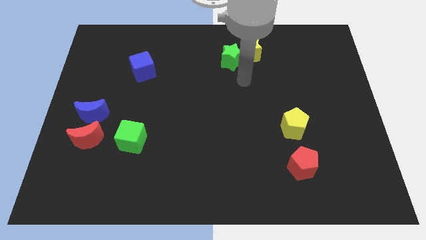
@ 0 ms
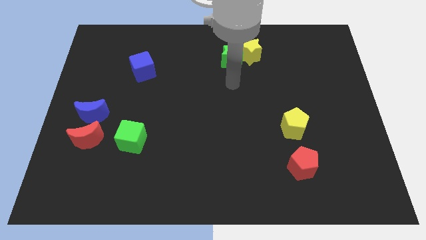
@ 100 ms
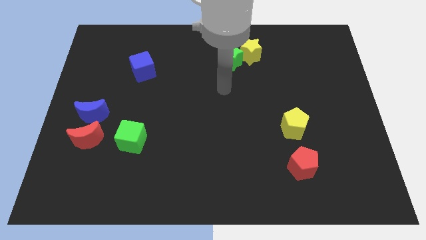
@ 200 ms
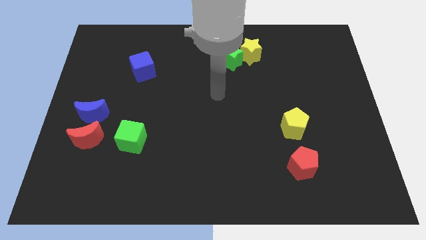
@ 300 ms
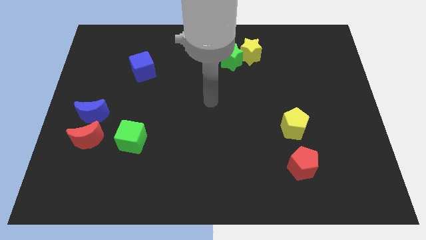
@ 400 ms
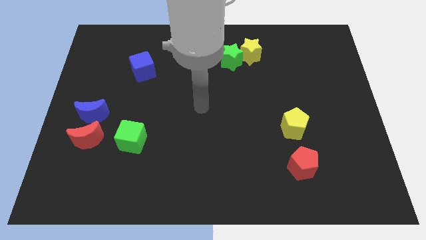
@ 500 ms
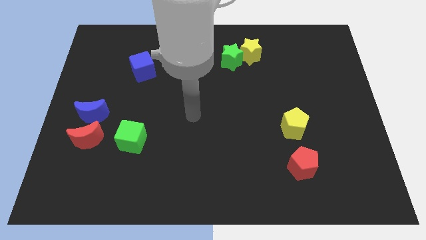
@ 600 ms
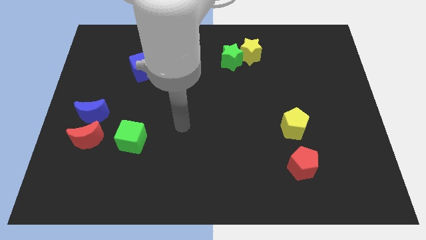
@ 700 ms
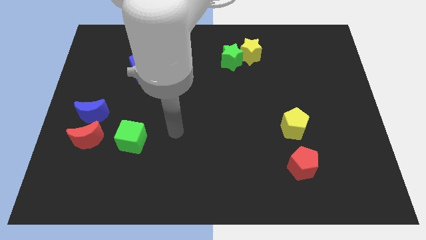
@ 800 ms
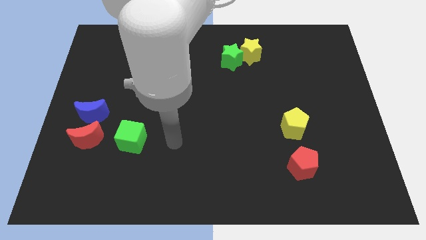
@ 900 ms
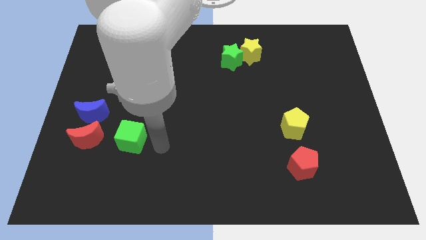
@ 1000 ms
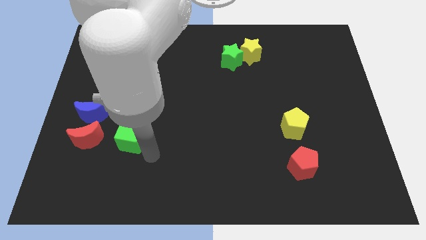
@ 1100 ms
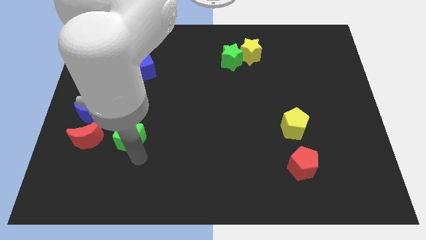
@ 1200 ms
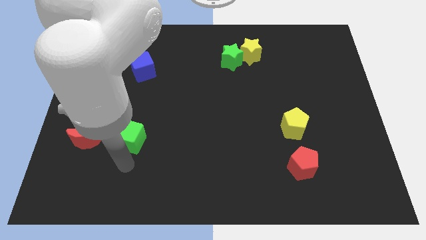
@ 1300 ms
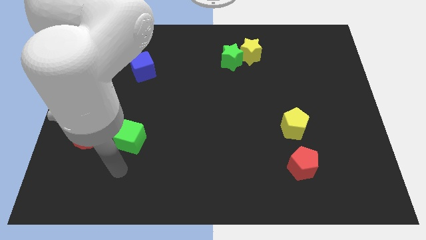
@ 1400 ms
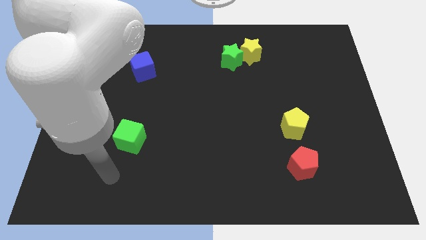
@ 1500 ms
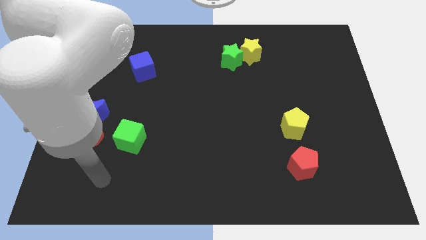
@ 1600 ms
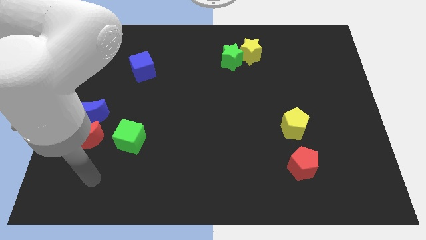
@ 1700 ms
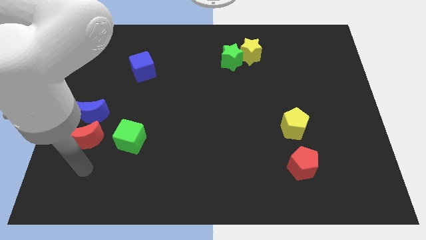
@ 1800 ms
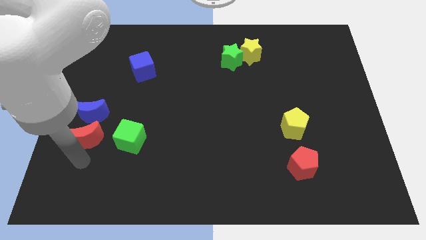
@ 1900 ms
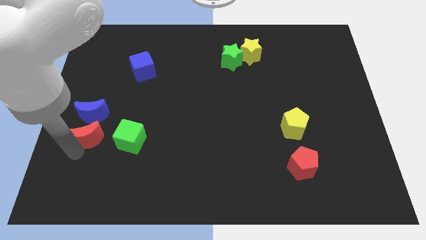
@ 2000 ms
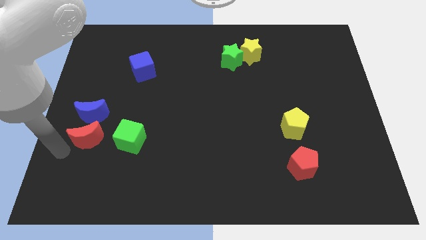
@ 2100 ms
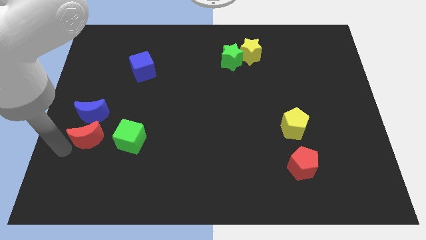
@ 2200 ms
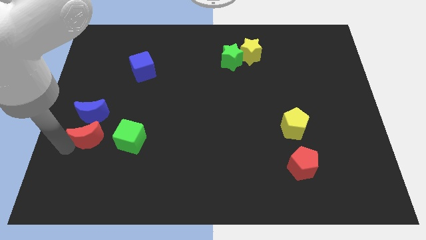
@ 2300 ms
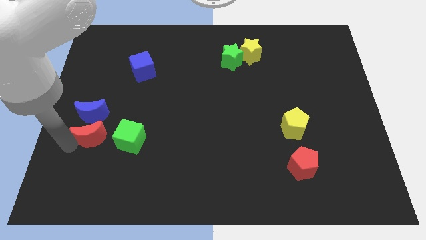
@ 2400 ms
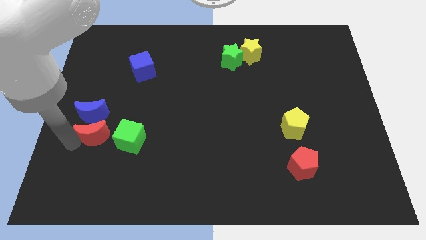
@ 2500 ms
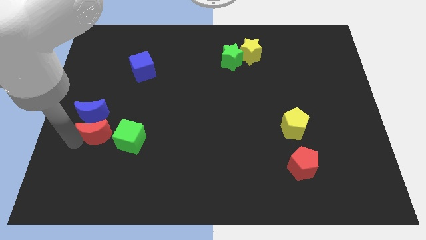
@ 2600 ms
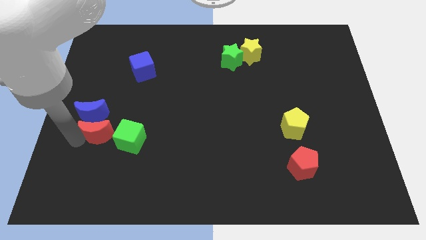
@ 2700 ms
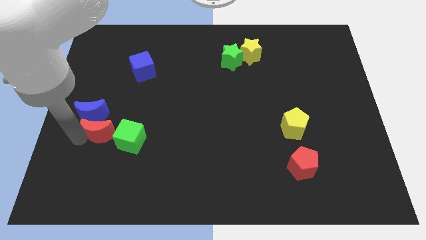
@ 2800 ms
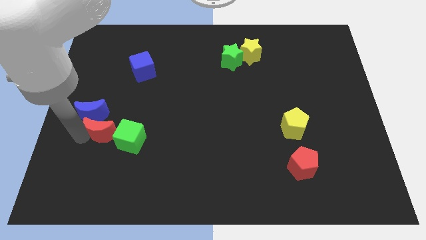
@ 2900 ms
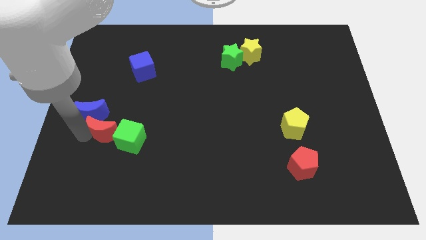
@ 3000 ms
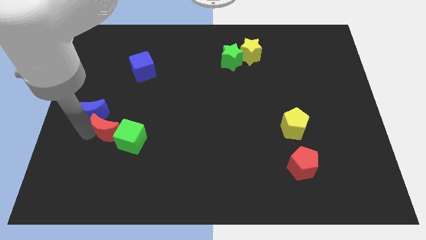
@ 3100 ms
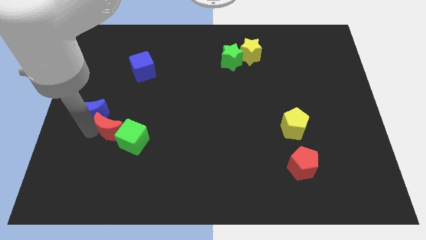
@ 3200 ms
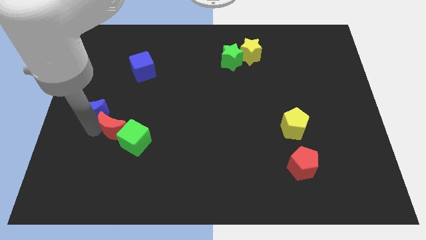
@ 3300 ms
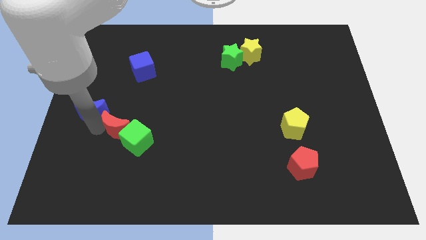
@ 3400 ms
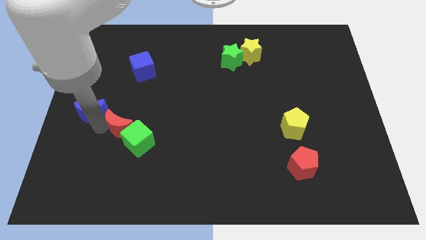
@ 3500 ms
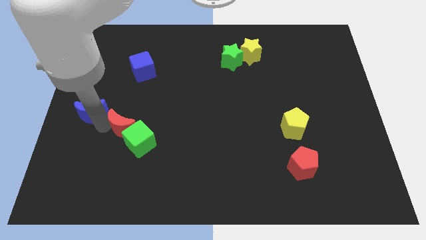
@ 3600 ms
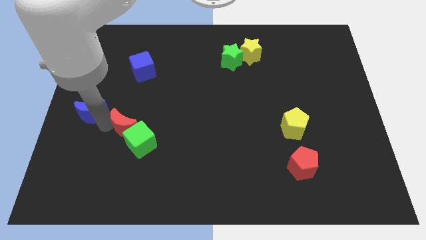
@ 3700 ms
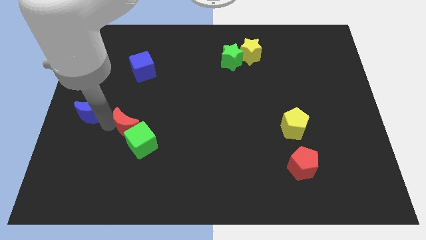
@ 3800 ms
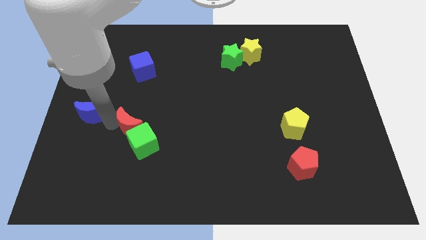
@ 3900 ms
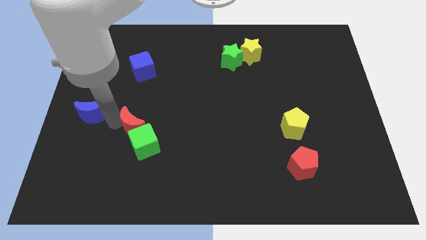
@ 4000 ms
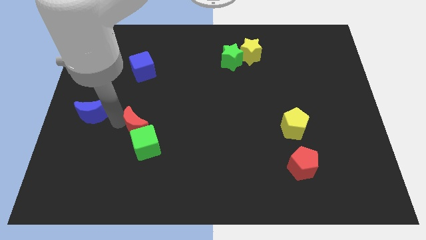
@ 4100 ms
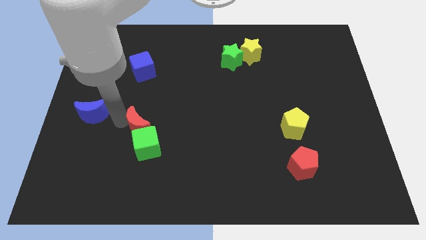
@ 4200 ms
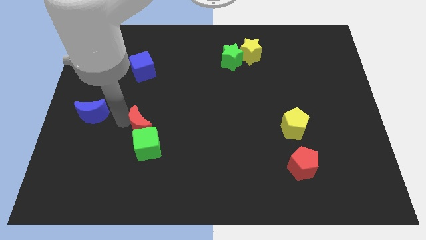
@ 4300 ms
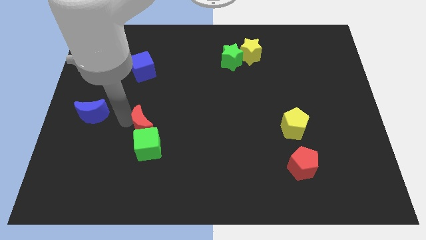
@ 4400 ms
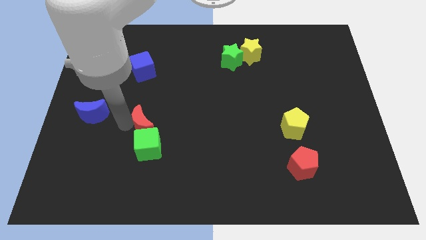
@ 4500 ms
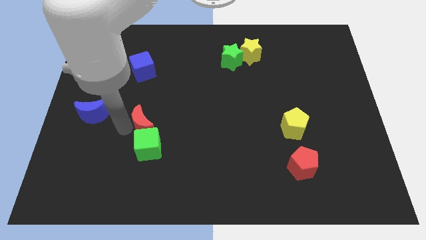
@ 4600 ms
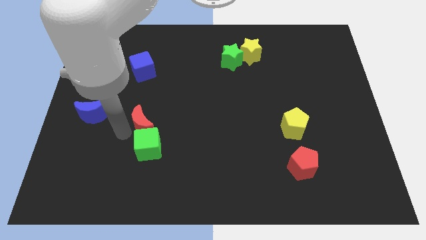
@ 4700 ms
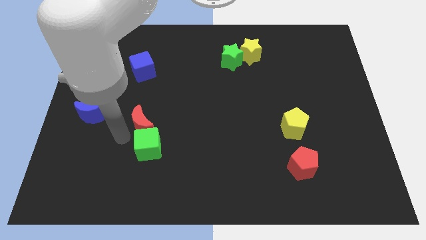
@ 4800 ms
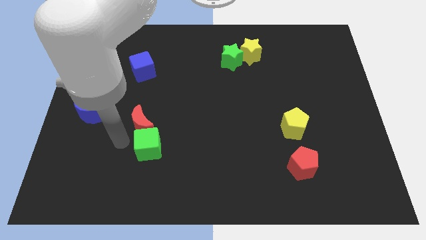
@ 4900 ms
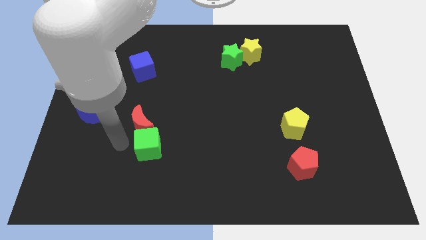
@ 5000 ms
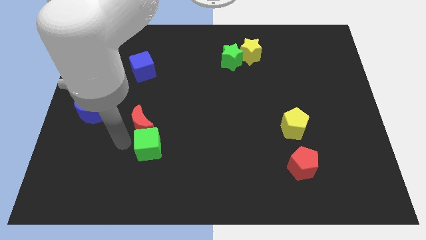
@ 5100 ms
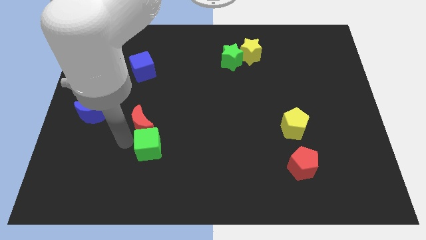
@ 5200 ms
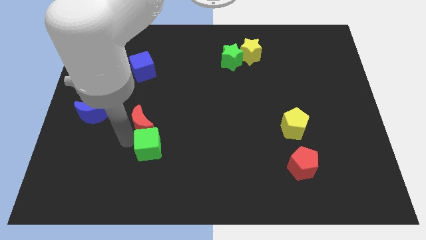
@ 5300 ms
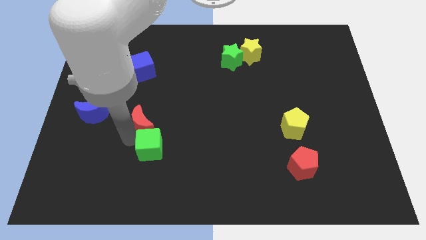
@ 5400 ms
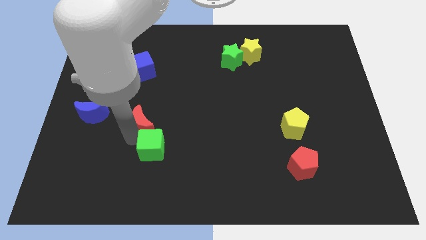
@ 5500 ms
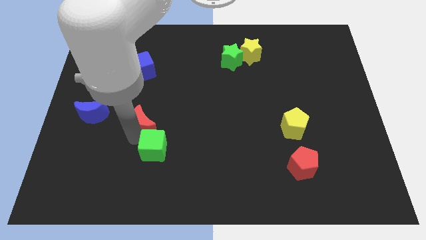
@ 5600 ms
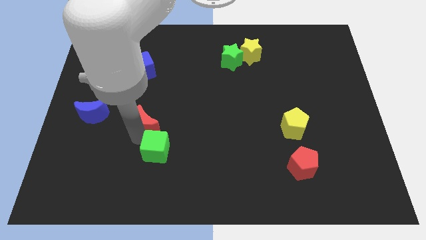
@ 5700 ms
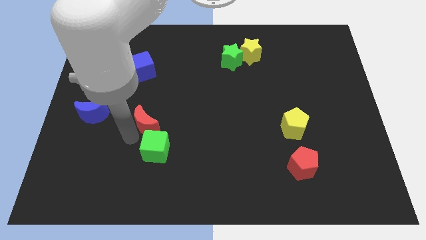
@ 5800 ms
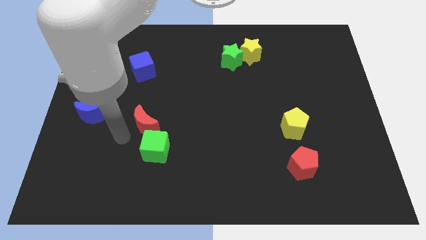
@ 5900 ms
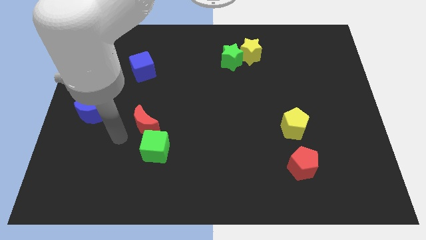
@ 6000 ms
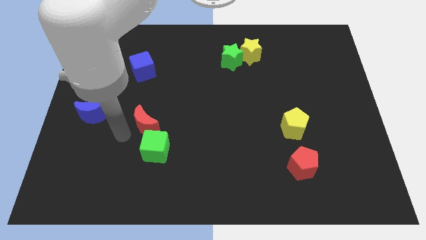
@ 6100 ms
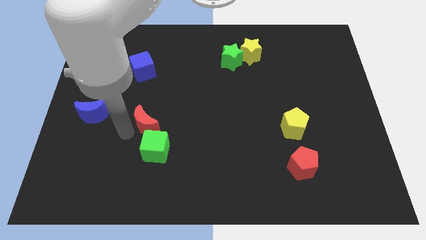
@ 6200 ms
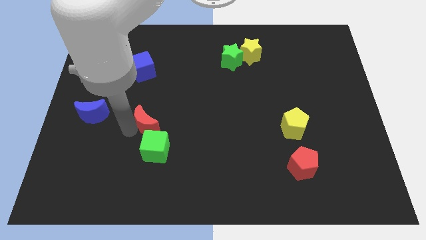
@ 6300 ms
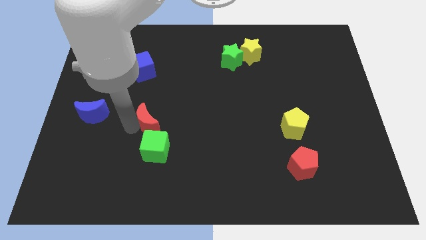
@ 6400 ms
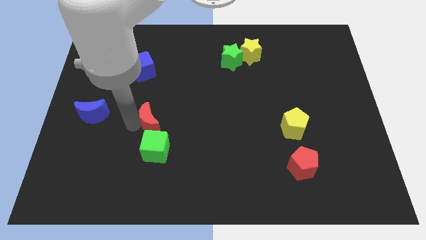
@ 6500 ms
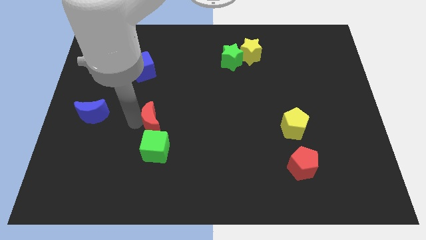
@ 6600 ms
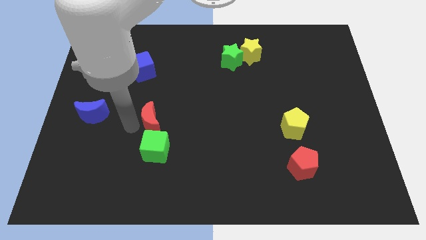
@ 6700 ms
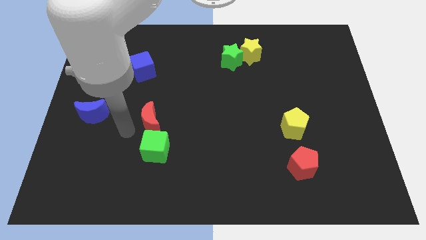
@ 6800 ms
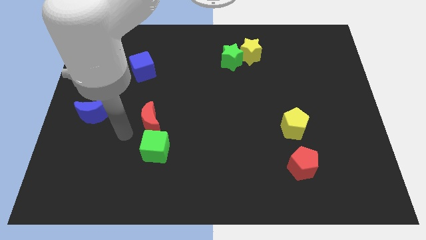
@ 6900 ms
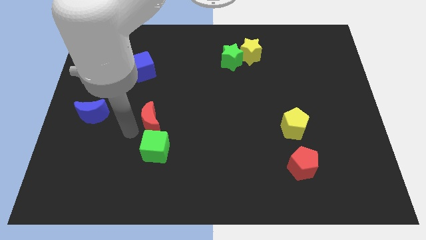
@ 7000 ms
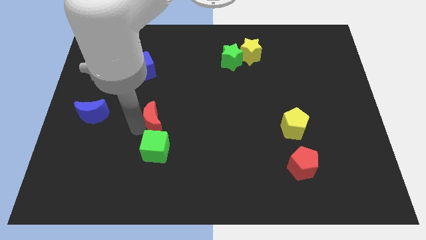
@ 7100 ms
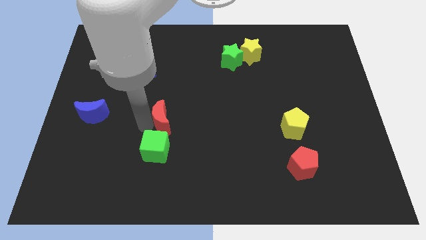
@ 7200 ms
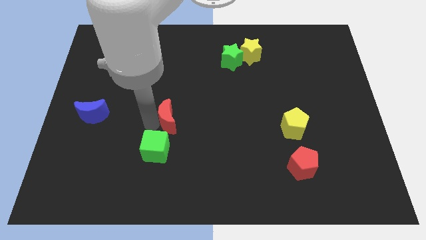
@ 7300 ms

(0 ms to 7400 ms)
push the red moon to the middle of the board
